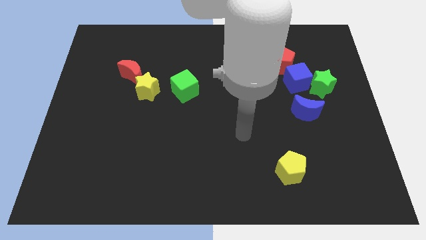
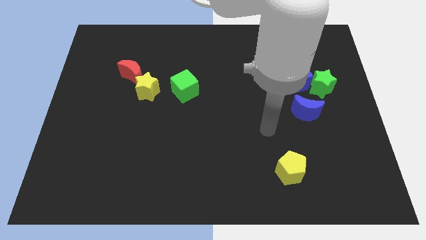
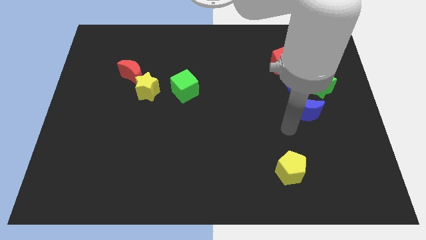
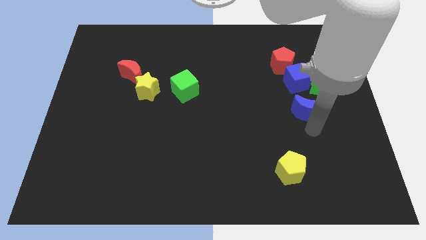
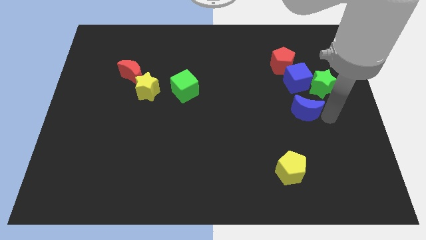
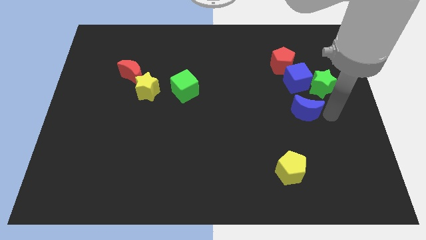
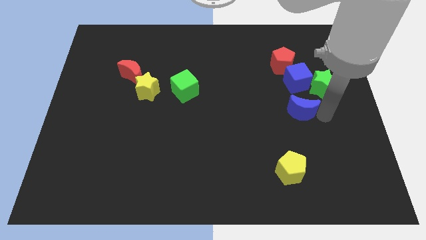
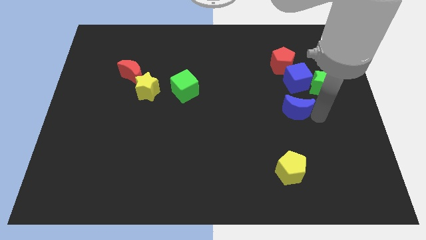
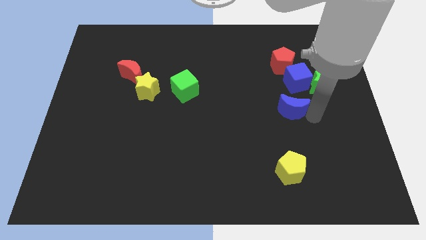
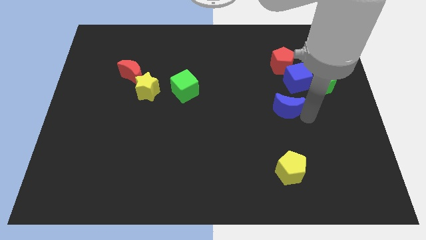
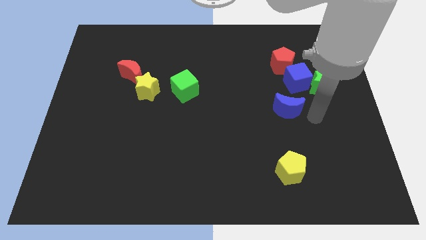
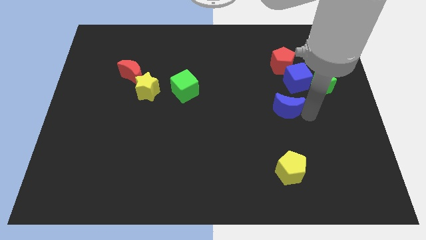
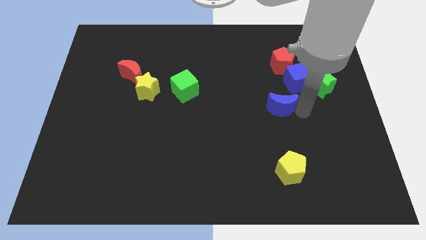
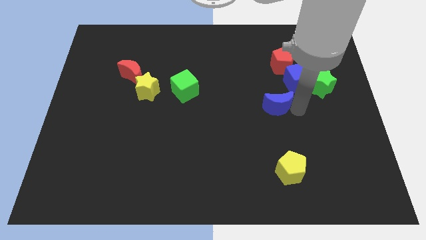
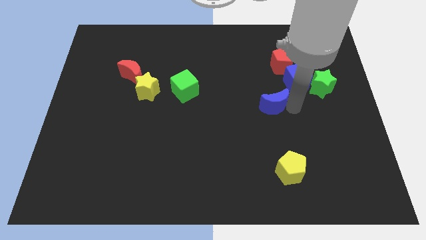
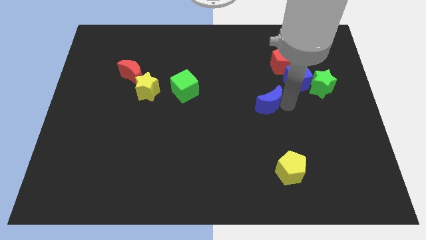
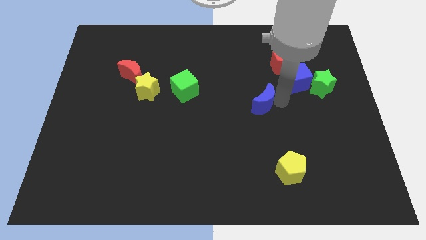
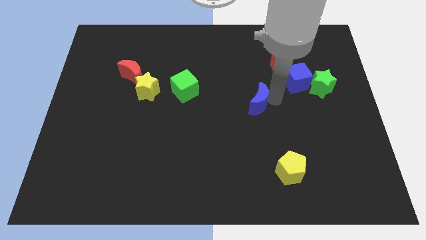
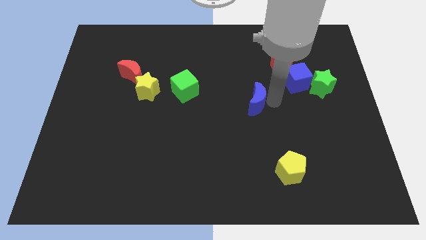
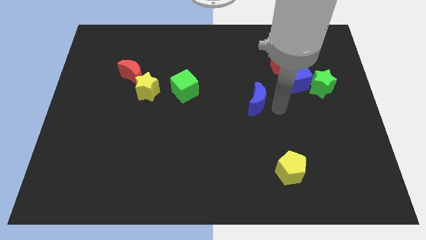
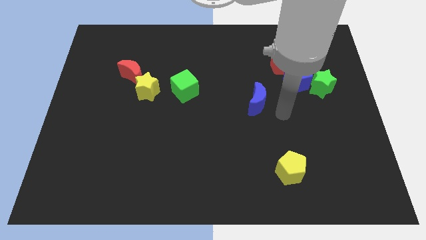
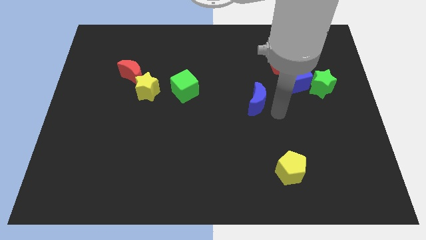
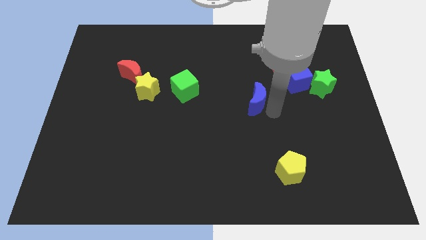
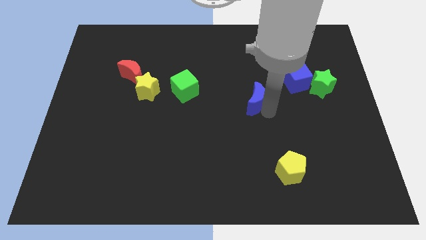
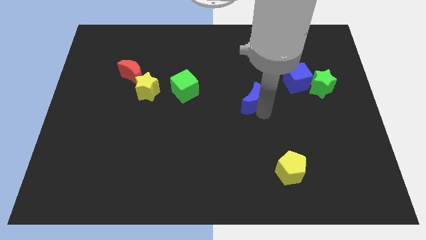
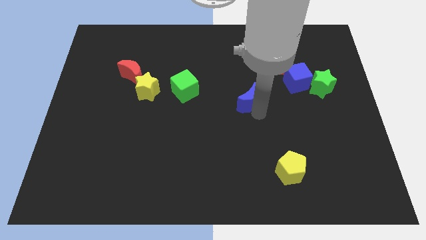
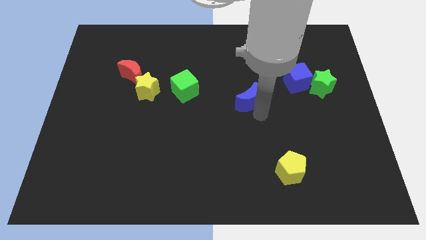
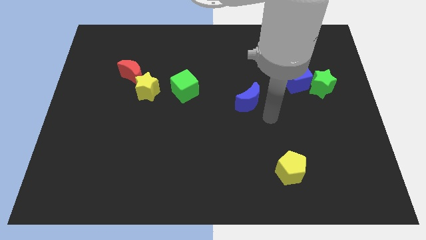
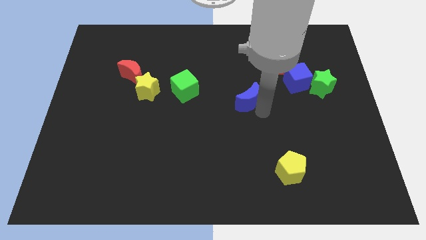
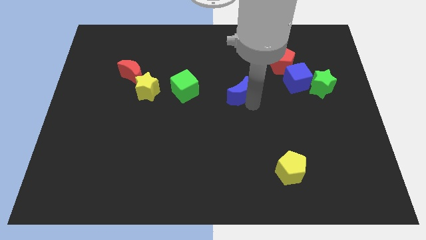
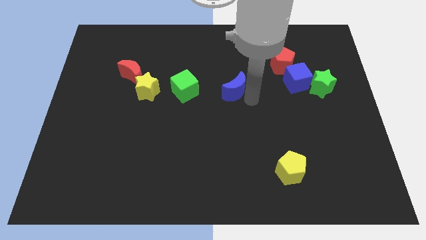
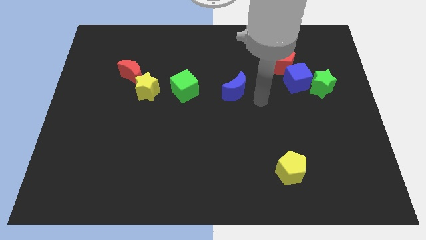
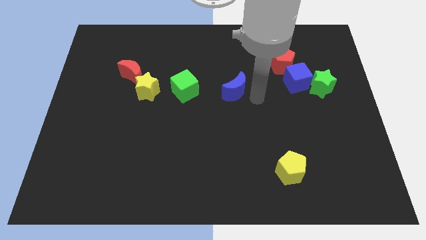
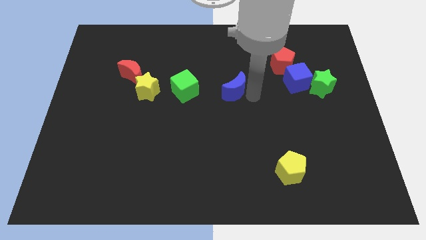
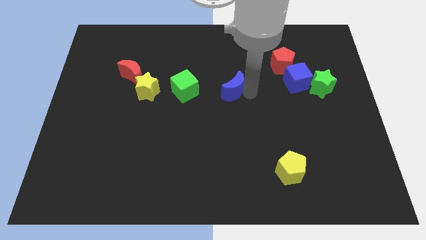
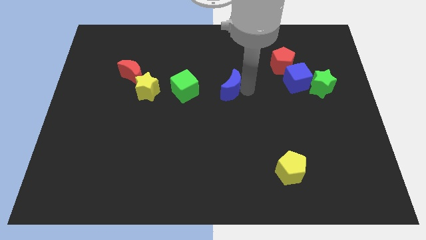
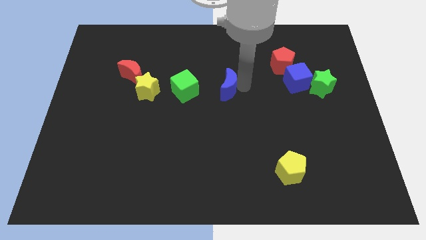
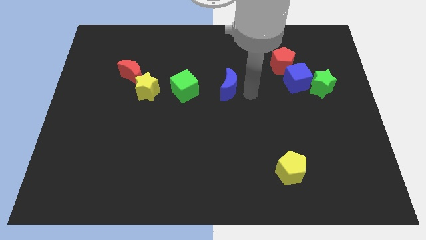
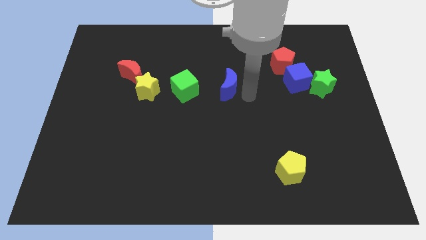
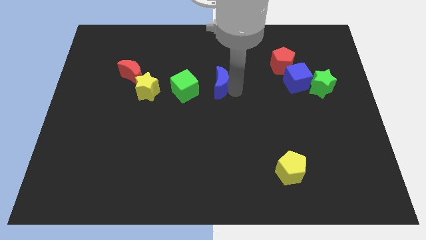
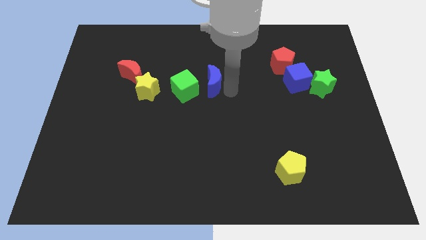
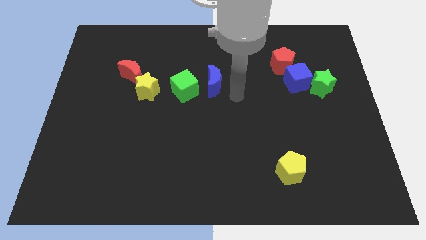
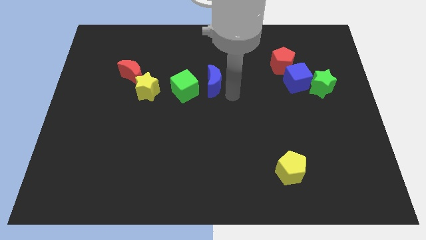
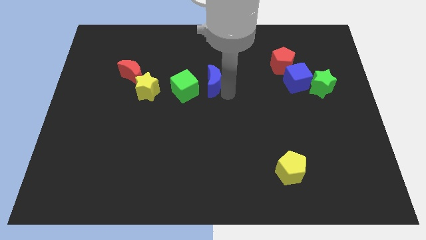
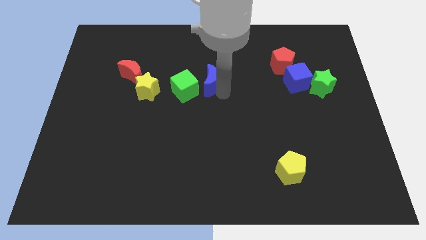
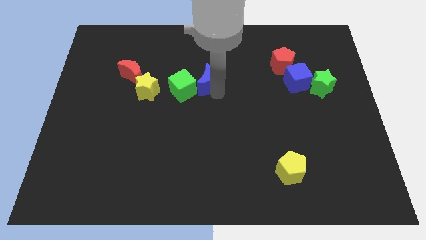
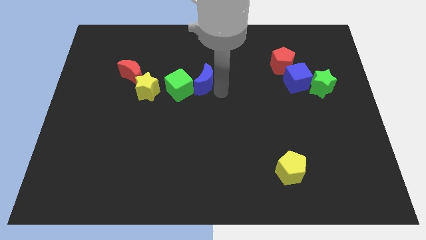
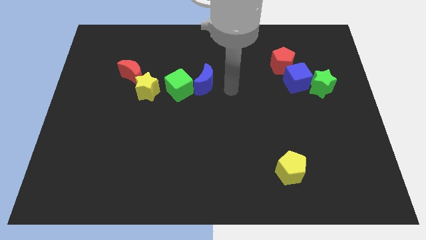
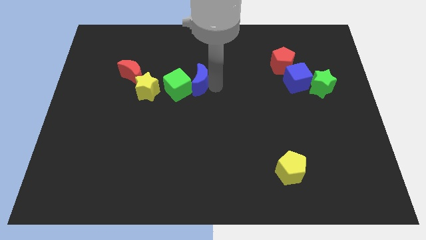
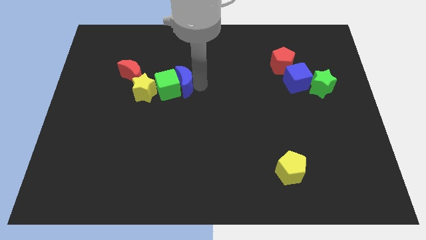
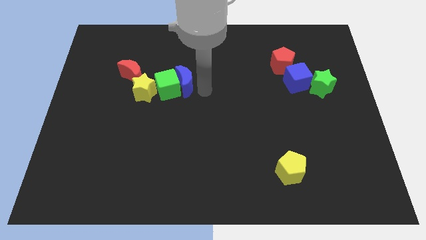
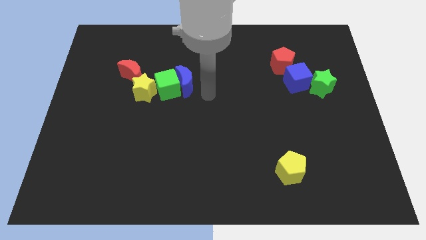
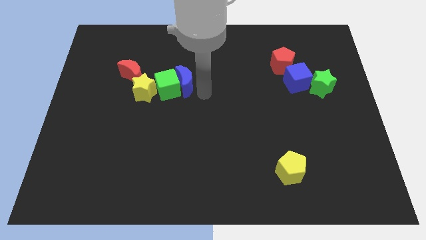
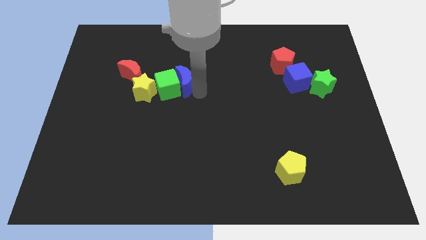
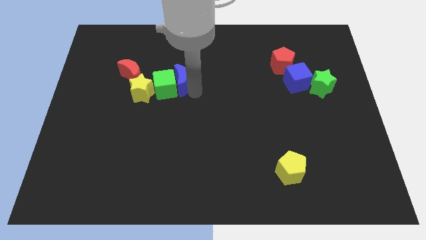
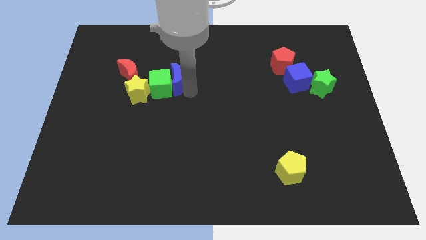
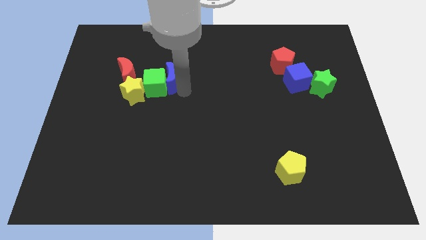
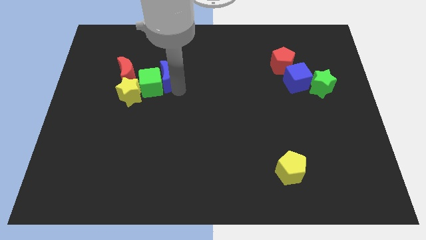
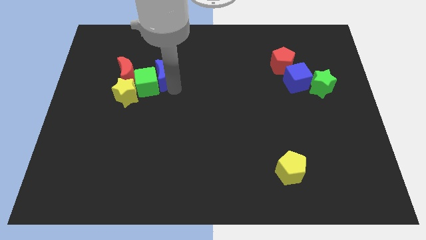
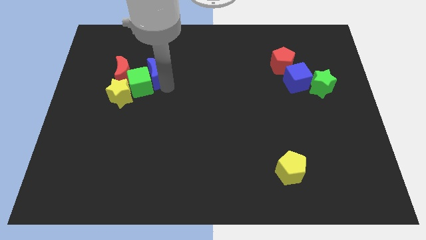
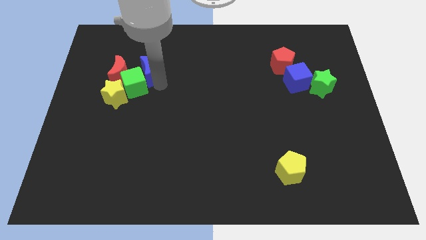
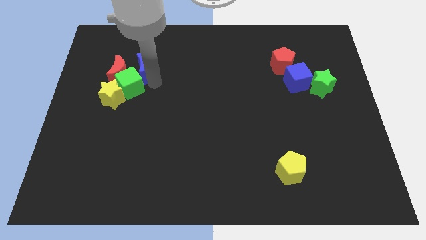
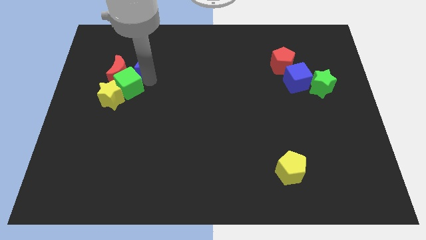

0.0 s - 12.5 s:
slide the blue moon to the red moon
